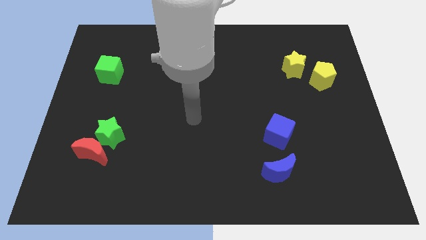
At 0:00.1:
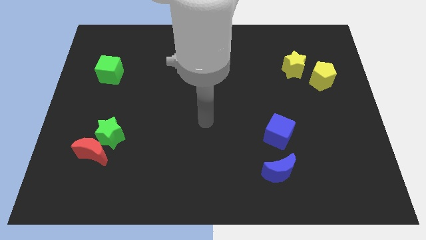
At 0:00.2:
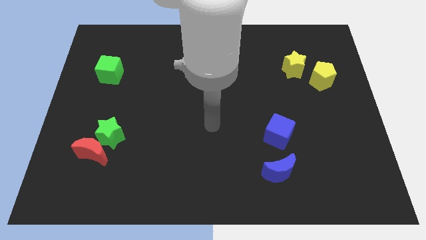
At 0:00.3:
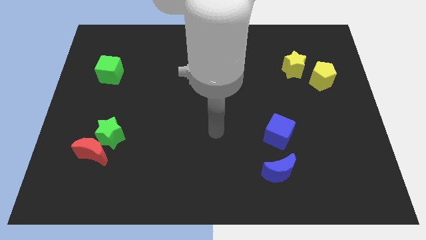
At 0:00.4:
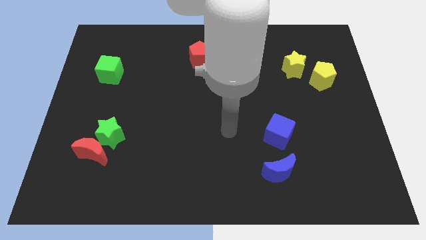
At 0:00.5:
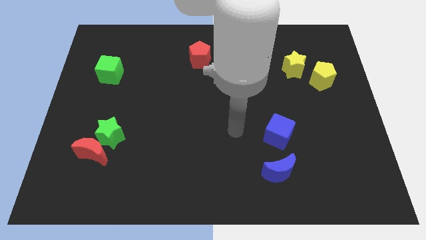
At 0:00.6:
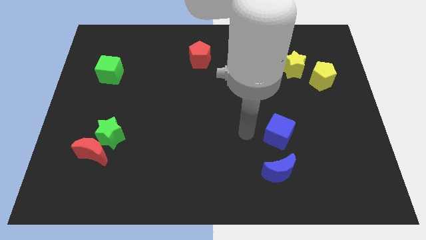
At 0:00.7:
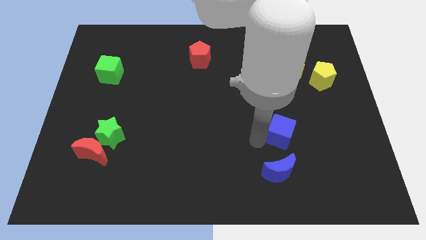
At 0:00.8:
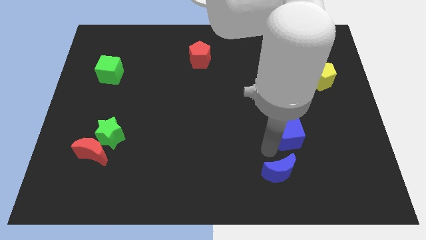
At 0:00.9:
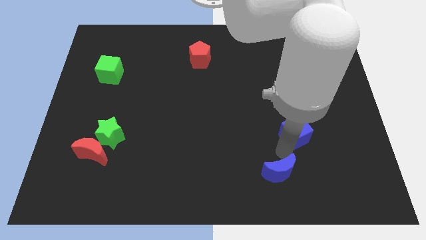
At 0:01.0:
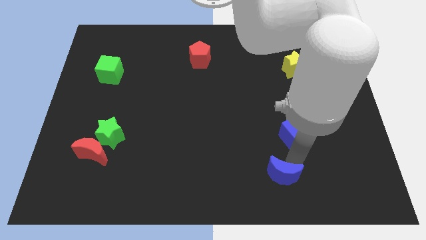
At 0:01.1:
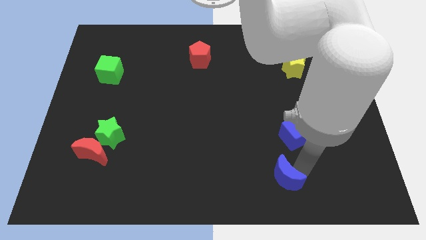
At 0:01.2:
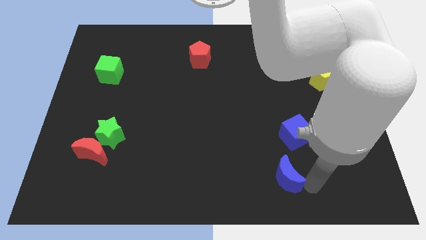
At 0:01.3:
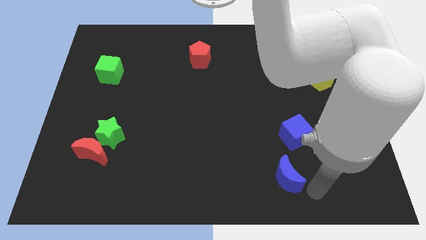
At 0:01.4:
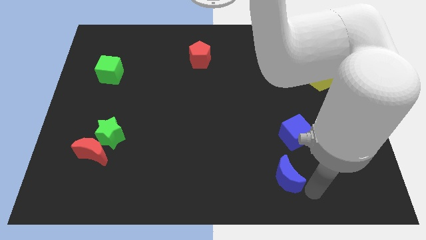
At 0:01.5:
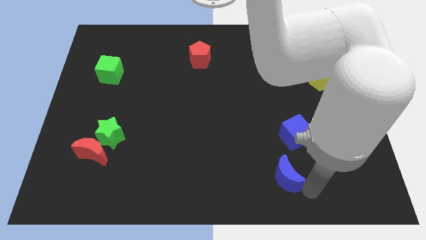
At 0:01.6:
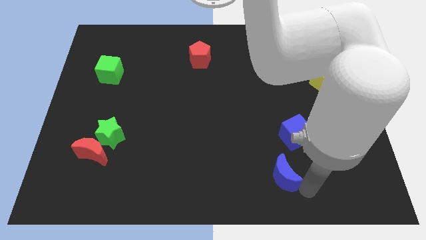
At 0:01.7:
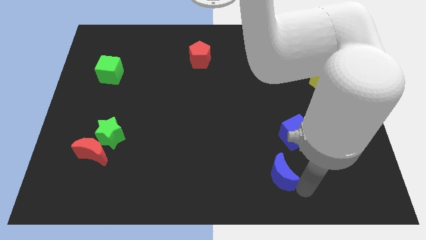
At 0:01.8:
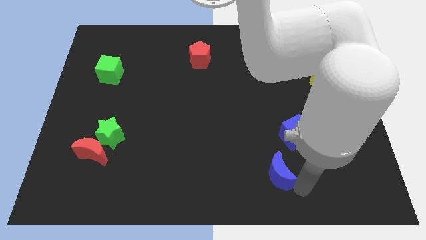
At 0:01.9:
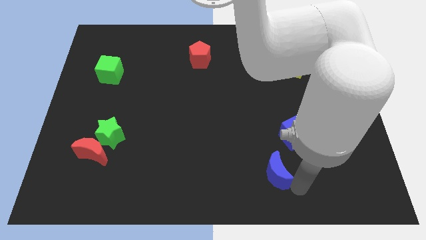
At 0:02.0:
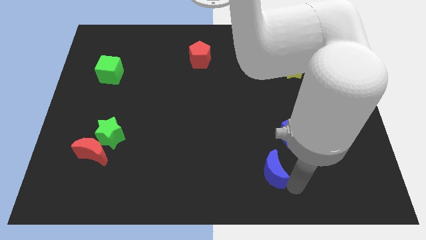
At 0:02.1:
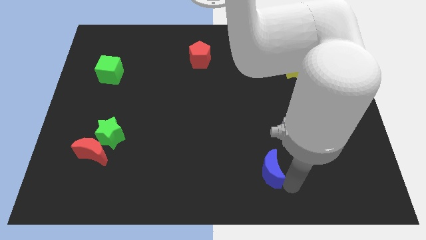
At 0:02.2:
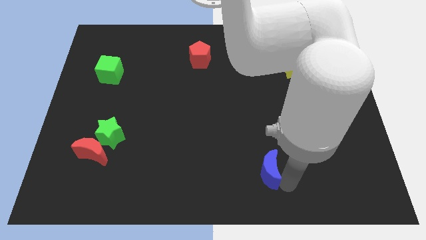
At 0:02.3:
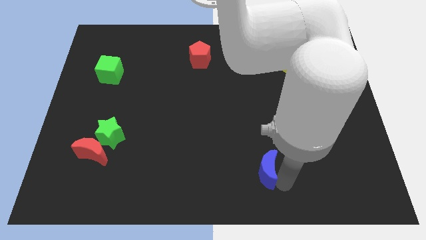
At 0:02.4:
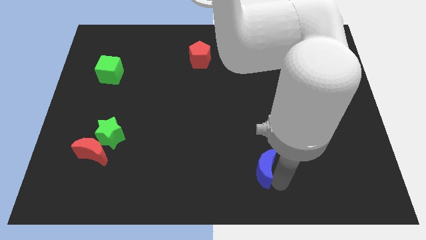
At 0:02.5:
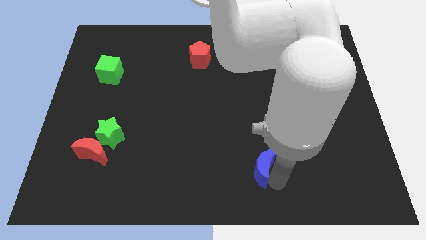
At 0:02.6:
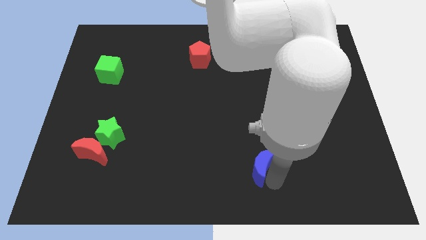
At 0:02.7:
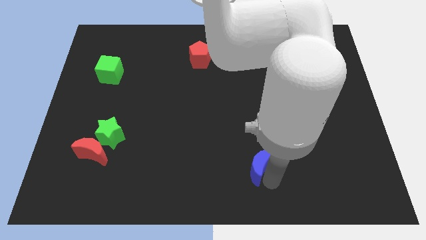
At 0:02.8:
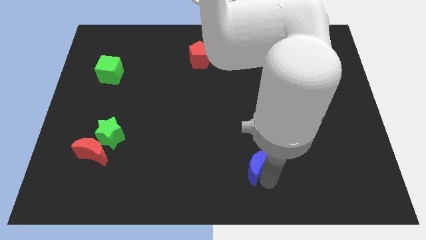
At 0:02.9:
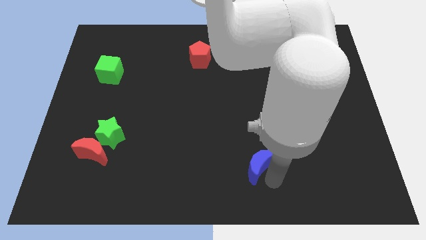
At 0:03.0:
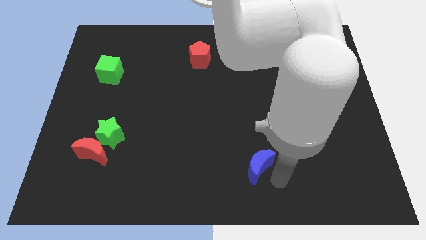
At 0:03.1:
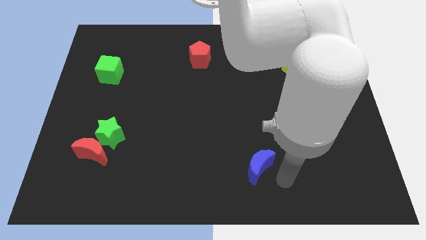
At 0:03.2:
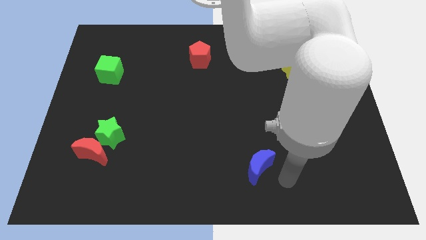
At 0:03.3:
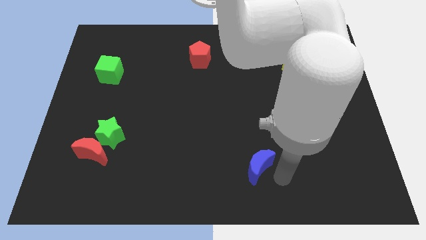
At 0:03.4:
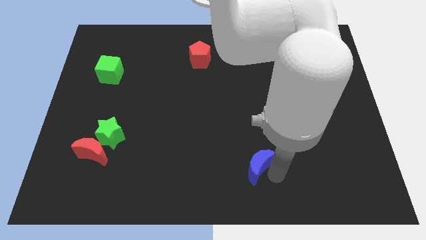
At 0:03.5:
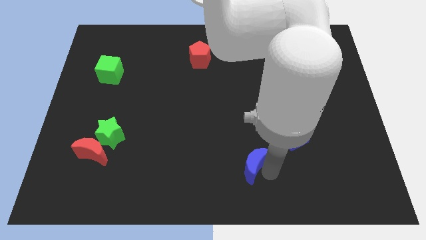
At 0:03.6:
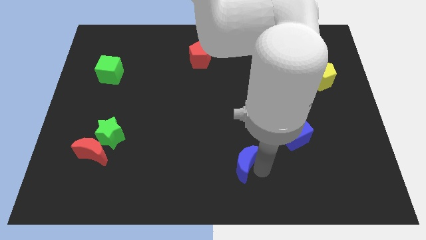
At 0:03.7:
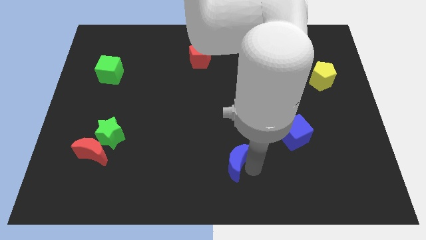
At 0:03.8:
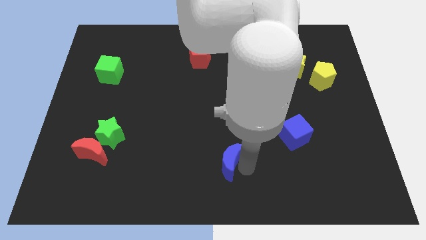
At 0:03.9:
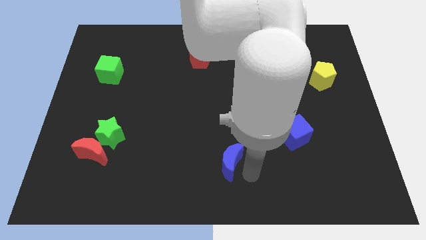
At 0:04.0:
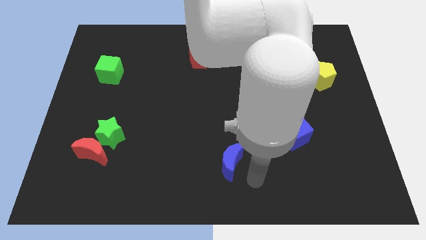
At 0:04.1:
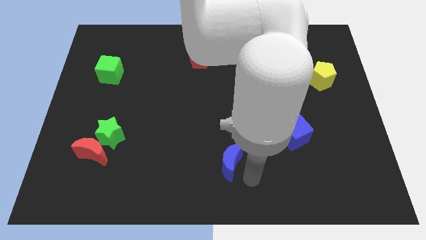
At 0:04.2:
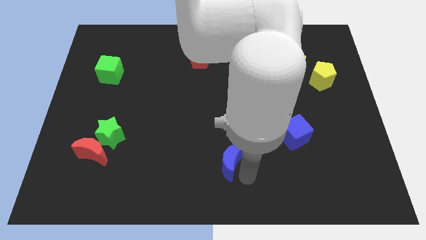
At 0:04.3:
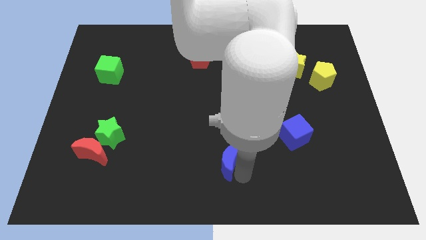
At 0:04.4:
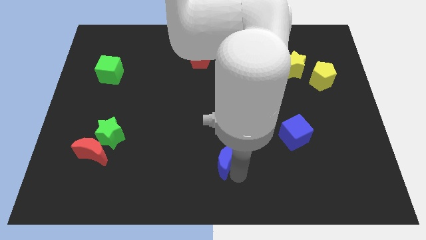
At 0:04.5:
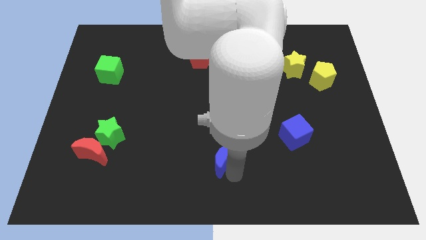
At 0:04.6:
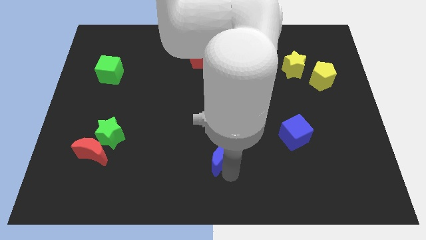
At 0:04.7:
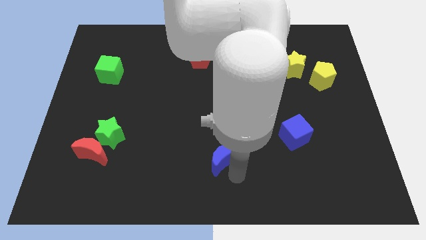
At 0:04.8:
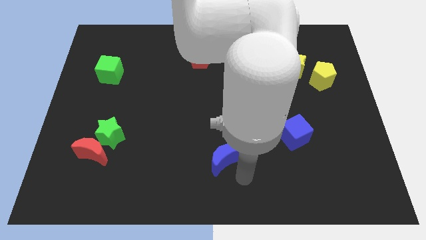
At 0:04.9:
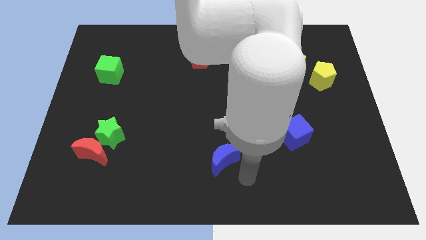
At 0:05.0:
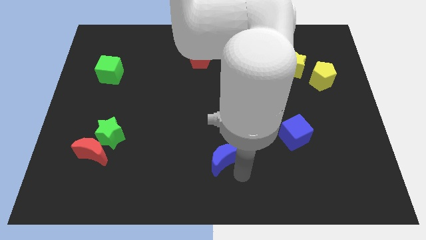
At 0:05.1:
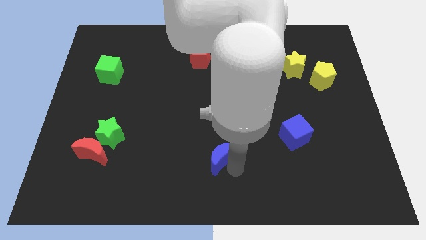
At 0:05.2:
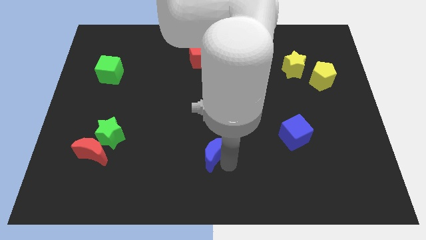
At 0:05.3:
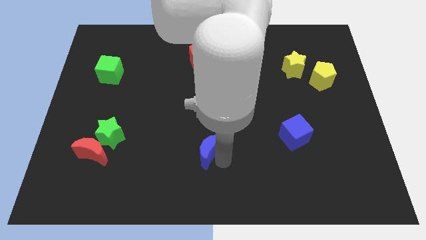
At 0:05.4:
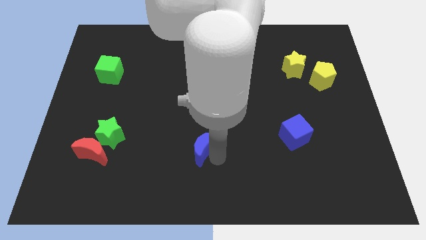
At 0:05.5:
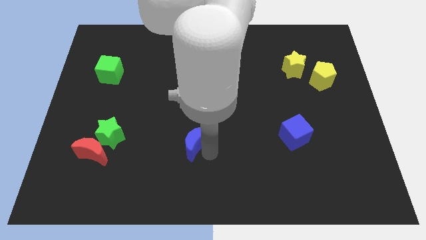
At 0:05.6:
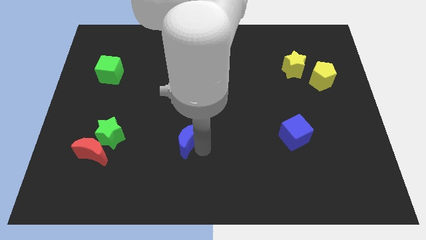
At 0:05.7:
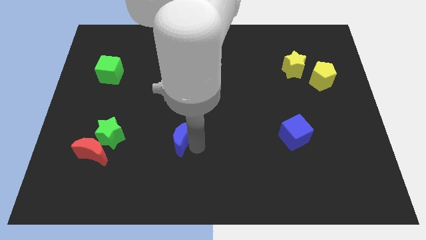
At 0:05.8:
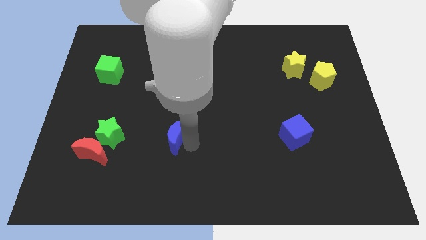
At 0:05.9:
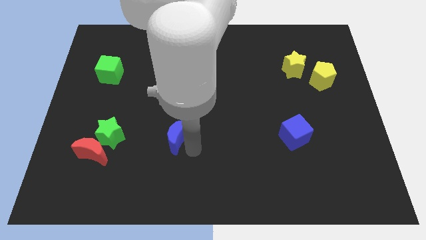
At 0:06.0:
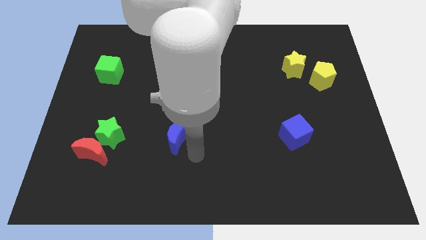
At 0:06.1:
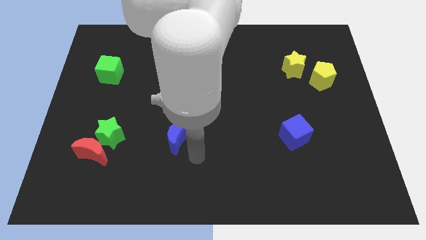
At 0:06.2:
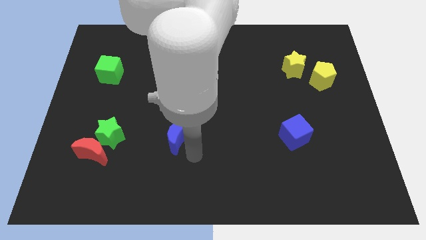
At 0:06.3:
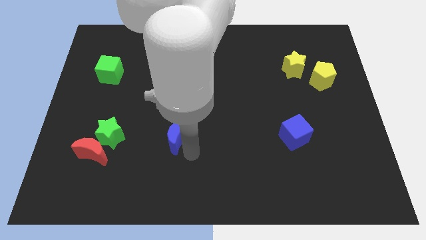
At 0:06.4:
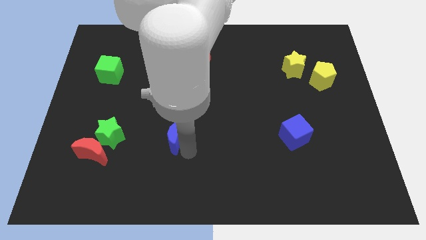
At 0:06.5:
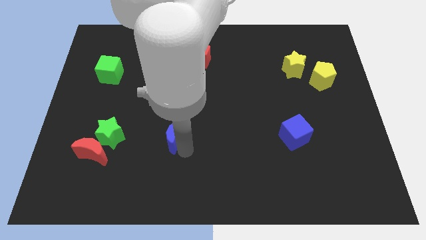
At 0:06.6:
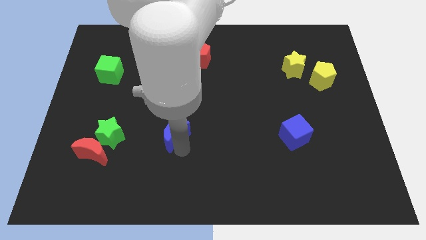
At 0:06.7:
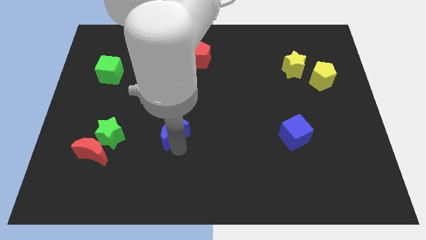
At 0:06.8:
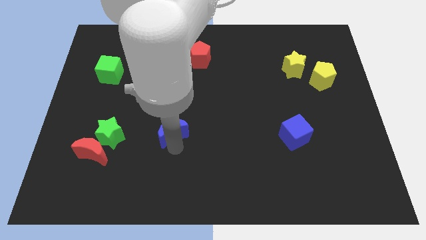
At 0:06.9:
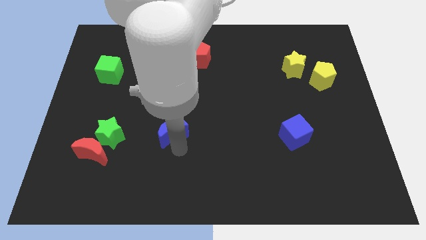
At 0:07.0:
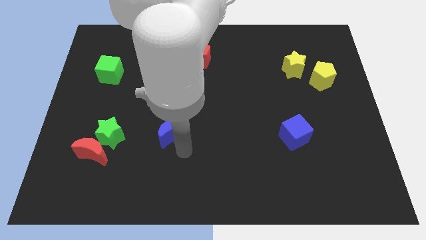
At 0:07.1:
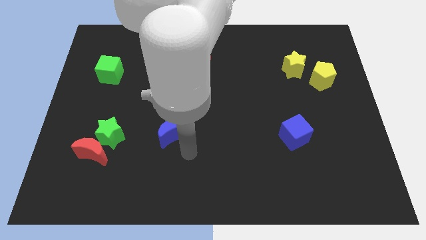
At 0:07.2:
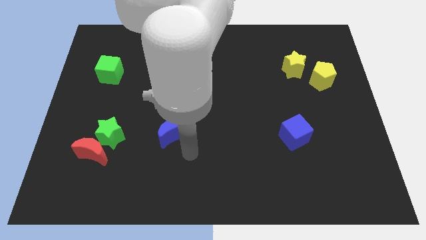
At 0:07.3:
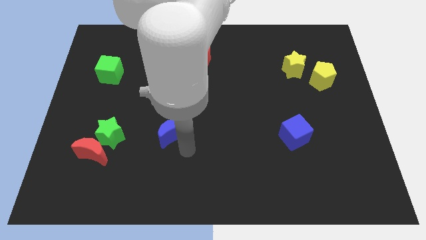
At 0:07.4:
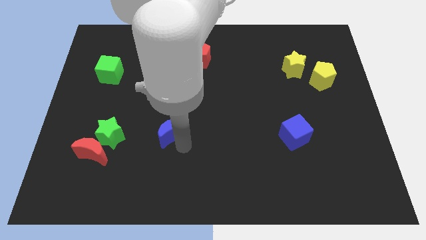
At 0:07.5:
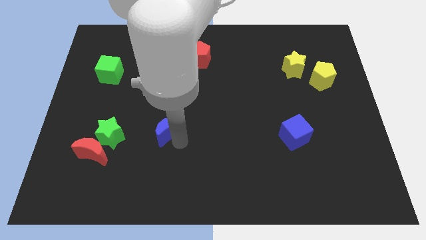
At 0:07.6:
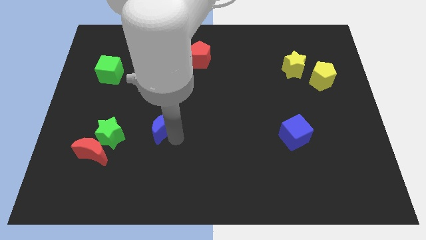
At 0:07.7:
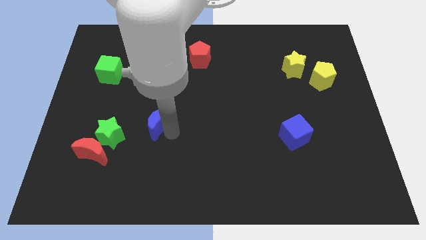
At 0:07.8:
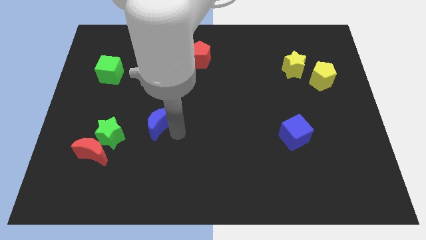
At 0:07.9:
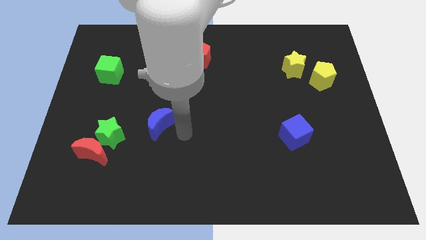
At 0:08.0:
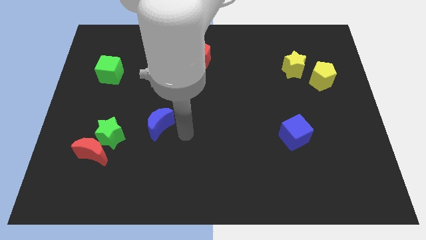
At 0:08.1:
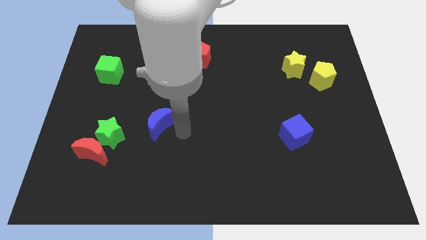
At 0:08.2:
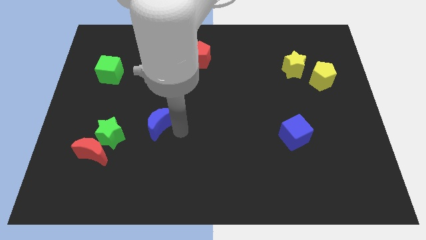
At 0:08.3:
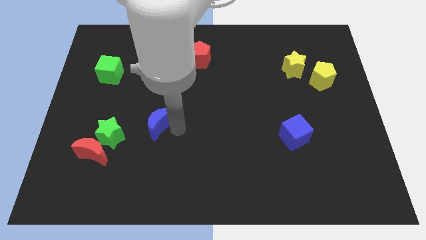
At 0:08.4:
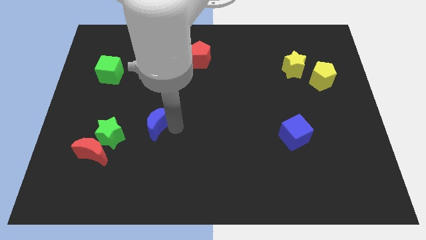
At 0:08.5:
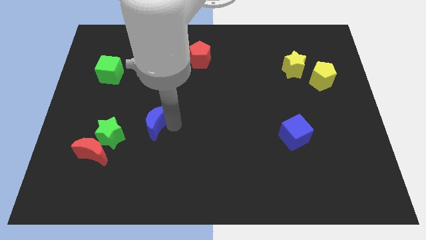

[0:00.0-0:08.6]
push the blue moon to the top right side of the green star
